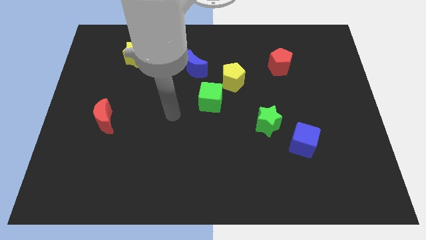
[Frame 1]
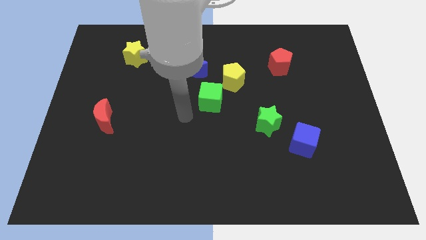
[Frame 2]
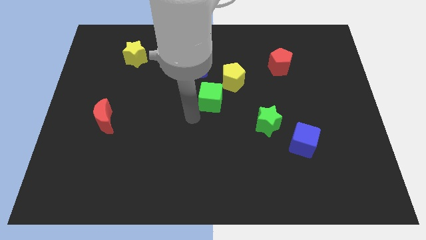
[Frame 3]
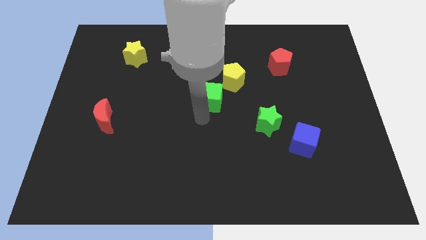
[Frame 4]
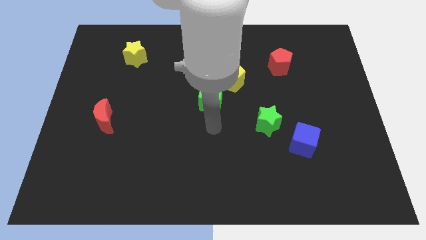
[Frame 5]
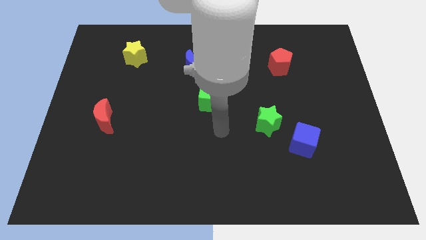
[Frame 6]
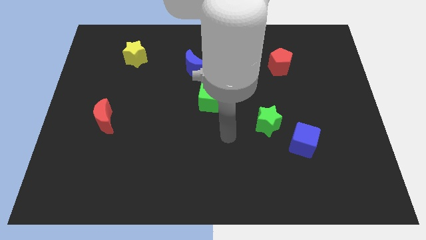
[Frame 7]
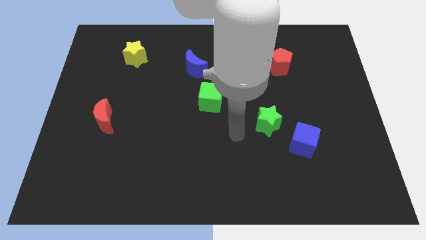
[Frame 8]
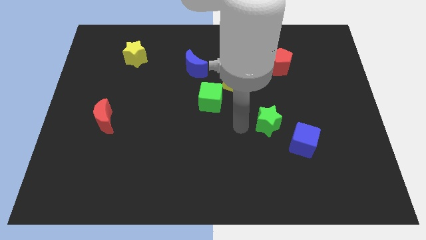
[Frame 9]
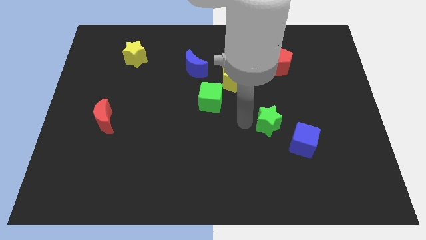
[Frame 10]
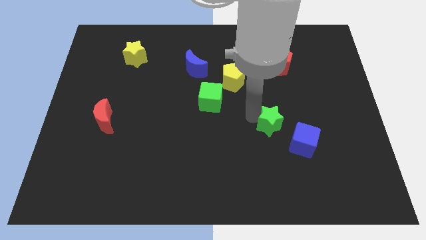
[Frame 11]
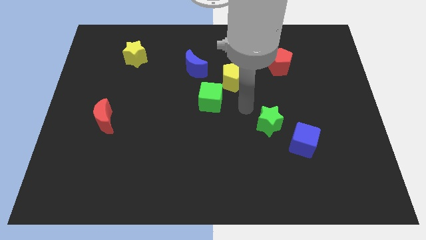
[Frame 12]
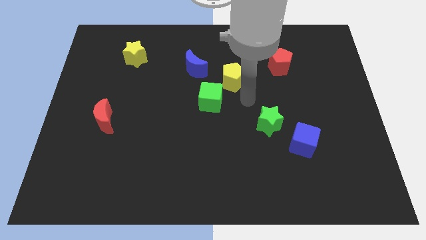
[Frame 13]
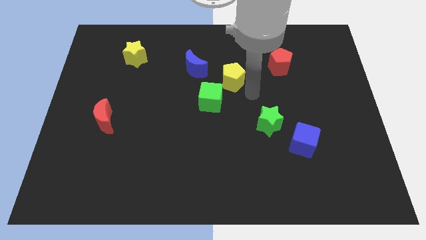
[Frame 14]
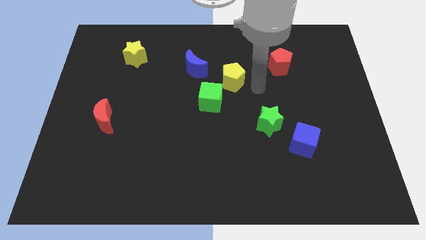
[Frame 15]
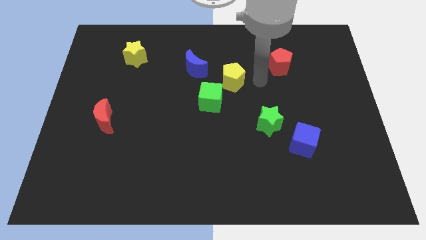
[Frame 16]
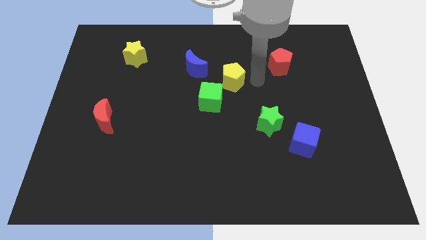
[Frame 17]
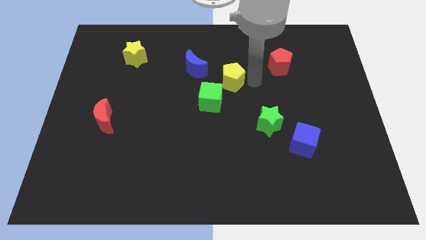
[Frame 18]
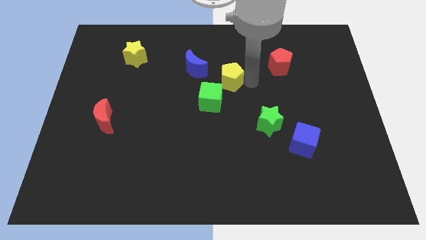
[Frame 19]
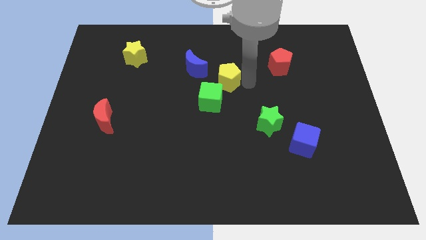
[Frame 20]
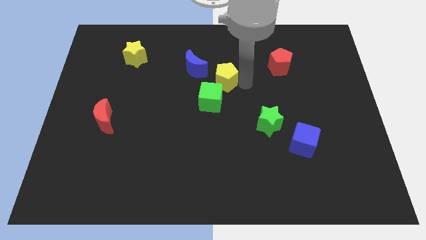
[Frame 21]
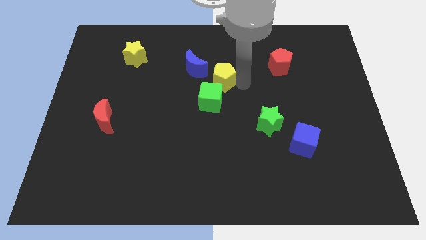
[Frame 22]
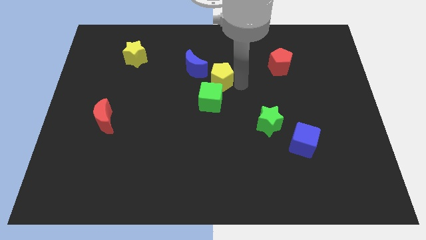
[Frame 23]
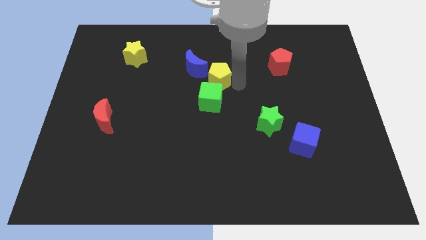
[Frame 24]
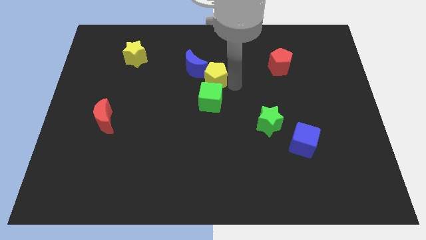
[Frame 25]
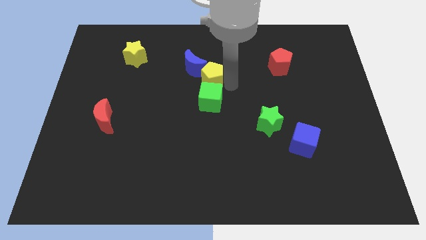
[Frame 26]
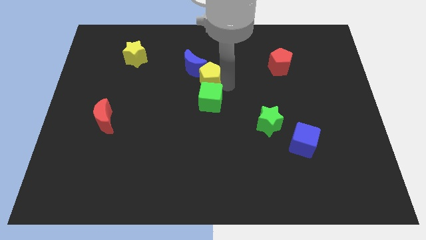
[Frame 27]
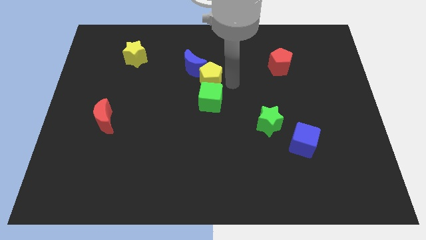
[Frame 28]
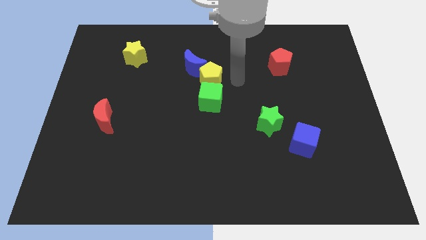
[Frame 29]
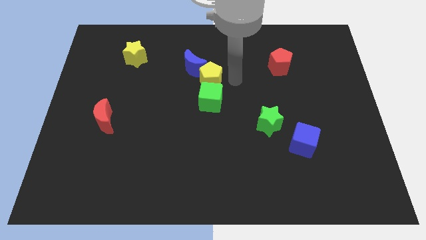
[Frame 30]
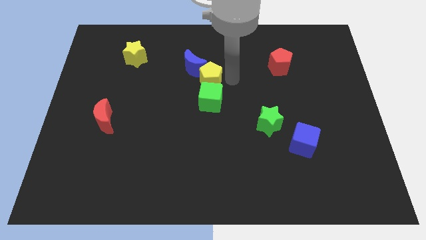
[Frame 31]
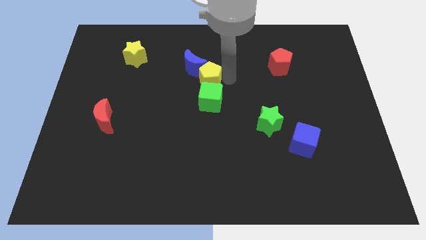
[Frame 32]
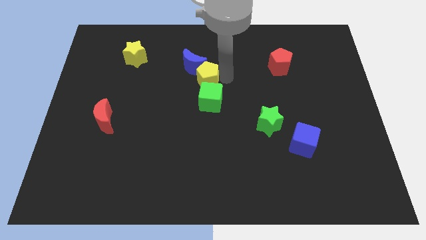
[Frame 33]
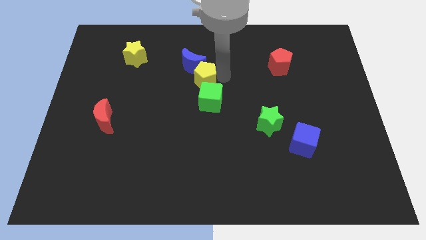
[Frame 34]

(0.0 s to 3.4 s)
slightly move the yellow pentagon to the left

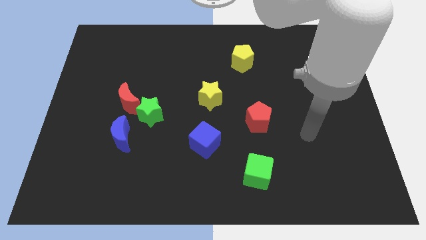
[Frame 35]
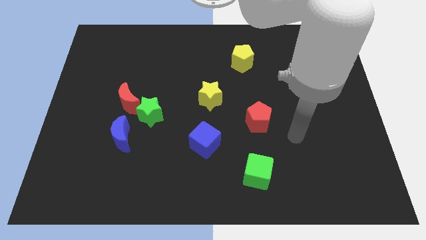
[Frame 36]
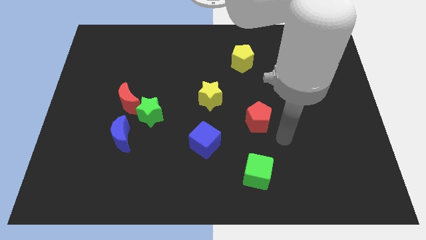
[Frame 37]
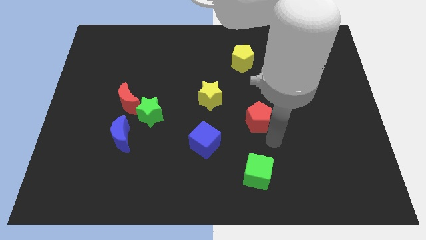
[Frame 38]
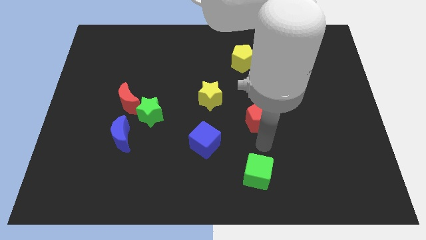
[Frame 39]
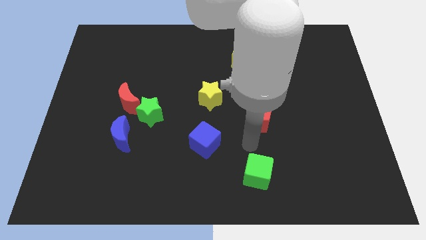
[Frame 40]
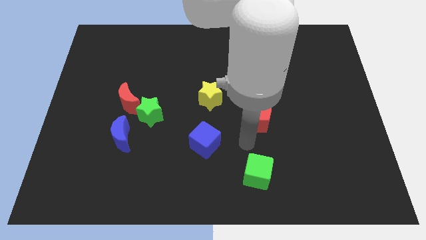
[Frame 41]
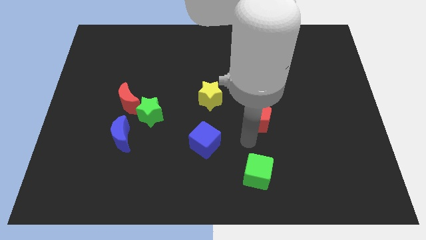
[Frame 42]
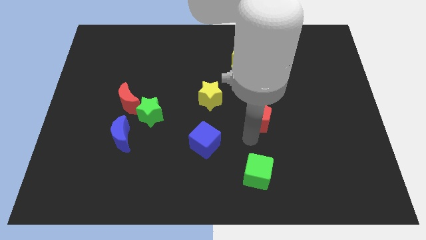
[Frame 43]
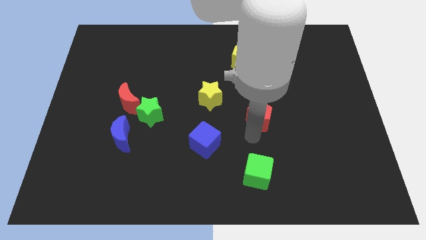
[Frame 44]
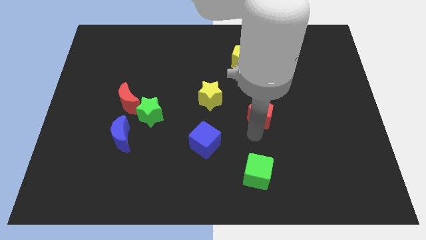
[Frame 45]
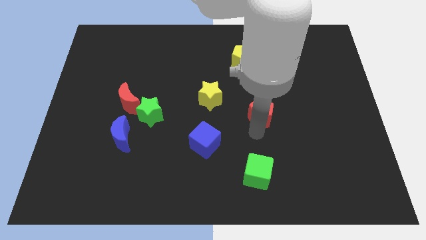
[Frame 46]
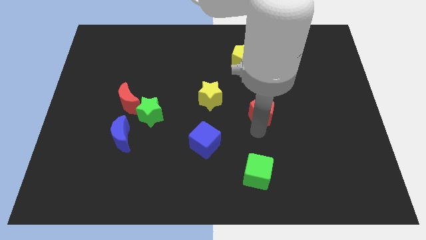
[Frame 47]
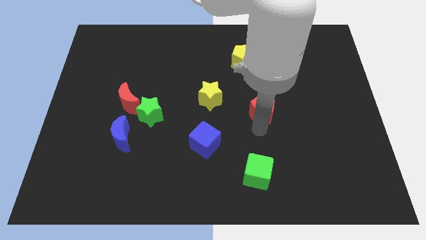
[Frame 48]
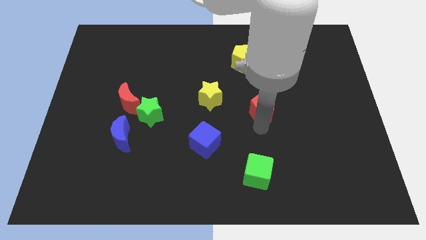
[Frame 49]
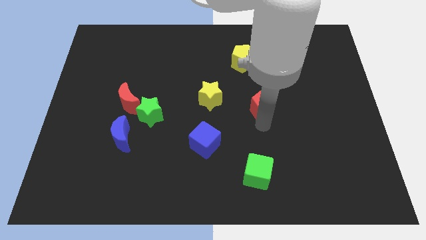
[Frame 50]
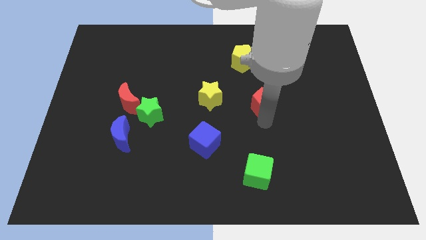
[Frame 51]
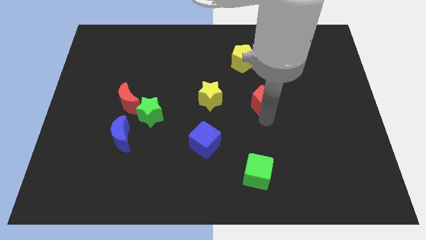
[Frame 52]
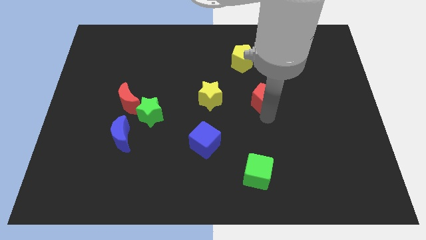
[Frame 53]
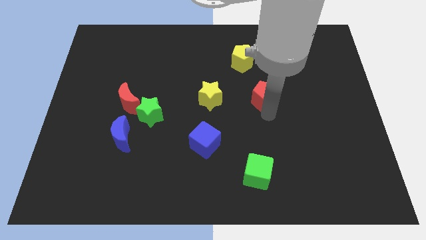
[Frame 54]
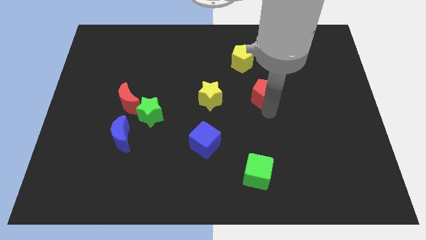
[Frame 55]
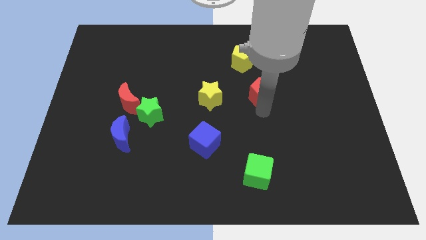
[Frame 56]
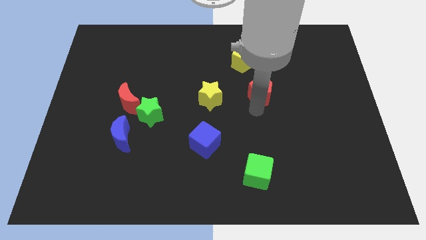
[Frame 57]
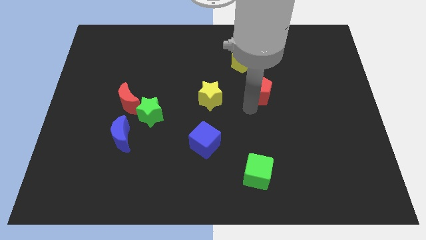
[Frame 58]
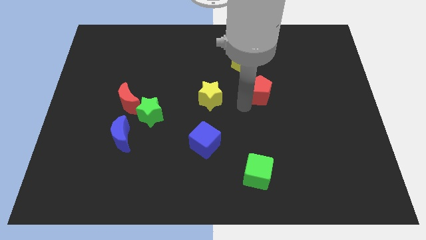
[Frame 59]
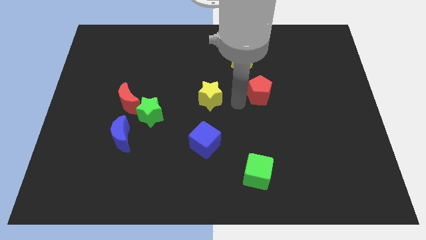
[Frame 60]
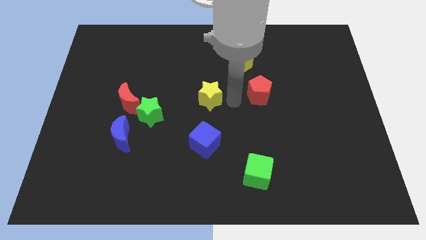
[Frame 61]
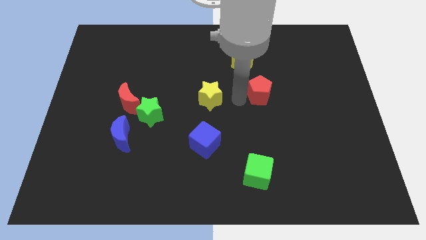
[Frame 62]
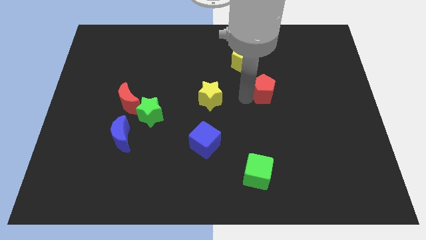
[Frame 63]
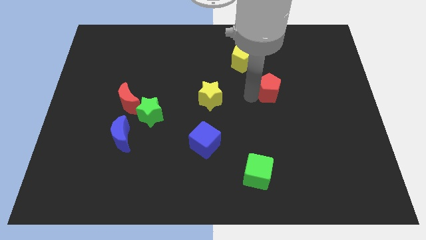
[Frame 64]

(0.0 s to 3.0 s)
push the red pentagon upwards and to the right somewhat

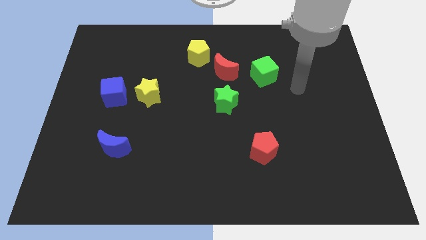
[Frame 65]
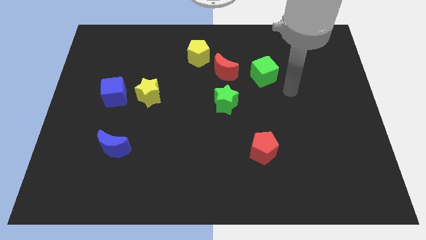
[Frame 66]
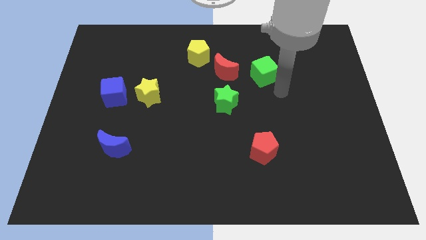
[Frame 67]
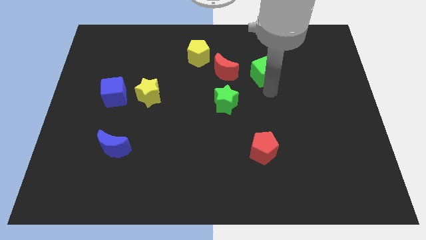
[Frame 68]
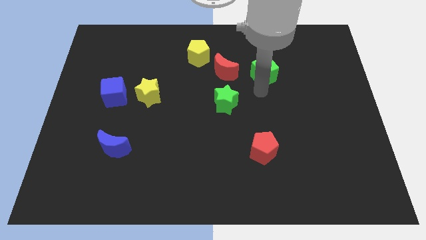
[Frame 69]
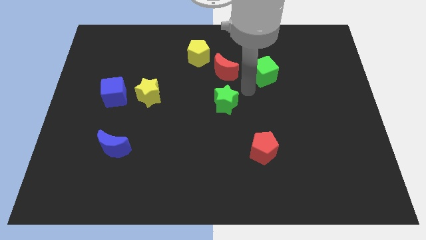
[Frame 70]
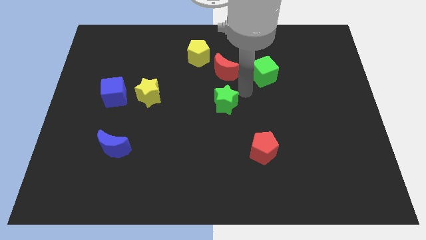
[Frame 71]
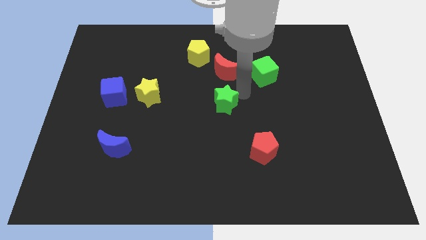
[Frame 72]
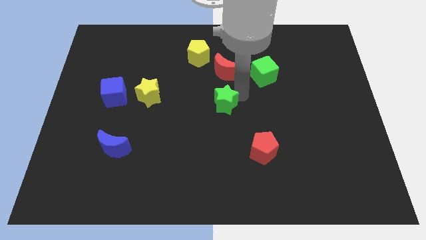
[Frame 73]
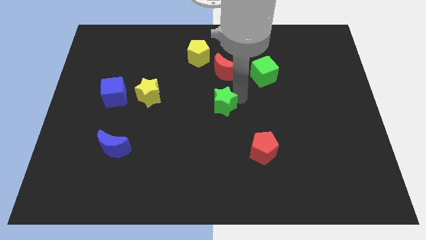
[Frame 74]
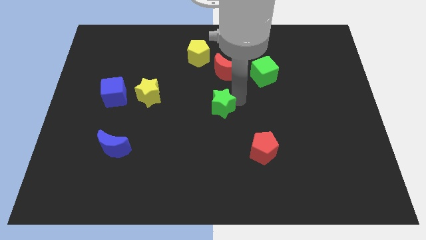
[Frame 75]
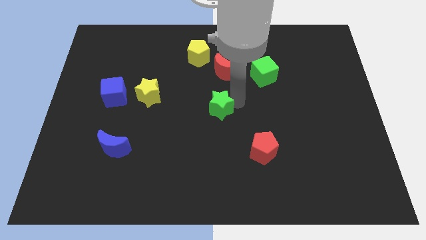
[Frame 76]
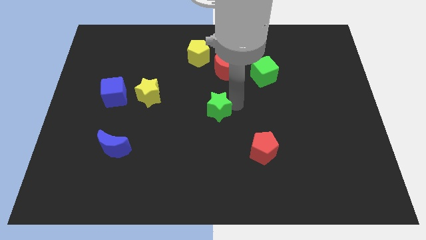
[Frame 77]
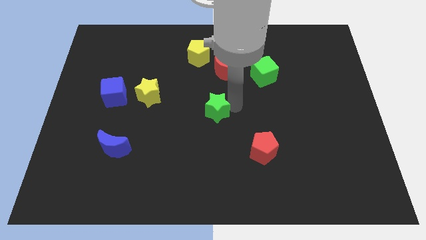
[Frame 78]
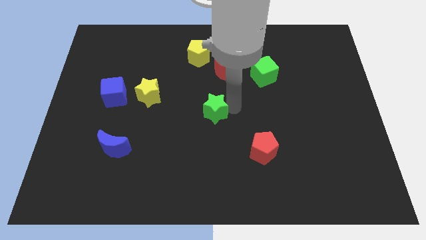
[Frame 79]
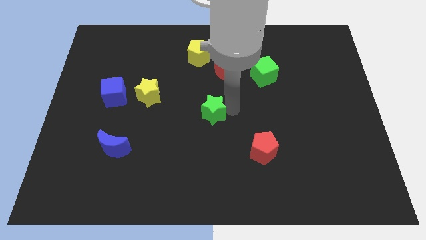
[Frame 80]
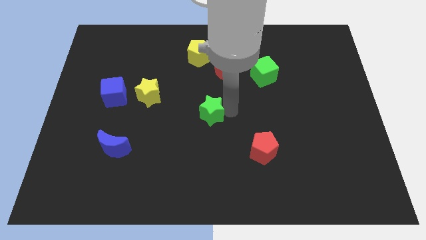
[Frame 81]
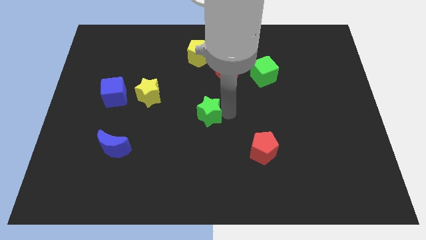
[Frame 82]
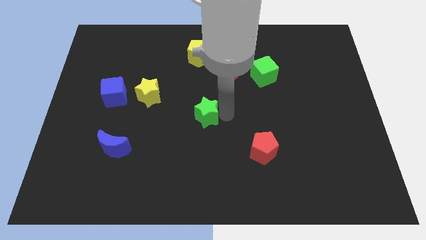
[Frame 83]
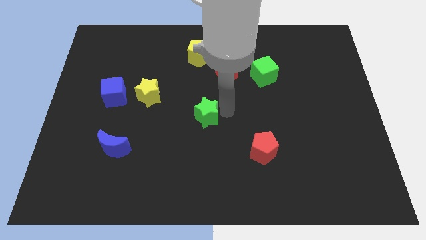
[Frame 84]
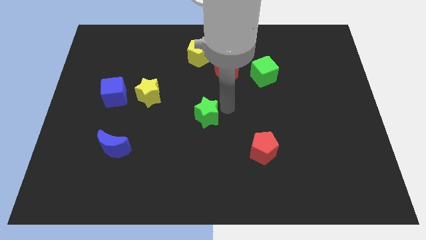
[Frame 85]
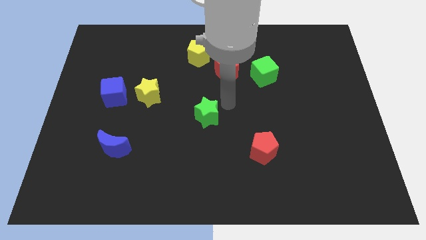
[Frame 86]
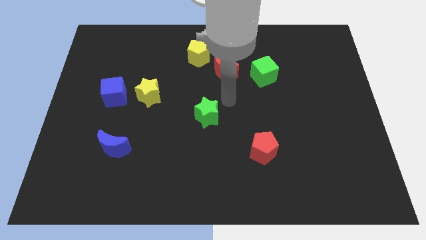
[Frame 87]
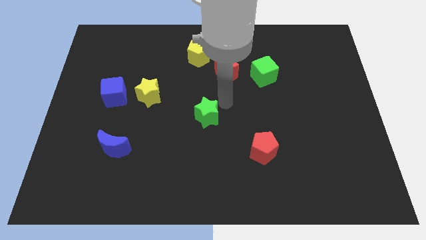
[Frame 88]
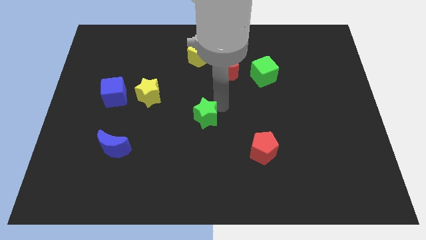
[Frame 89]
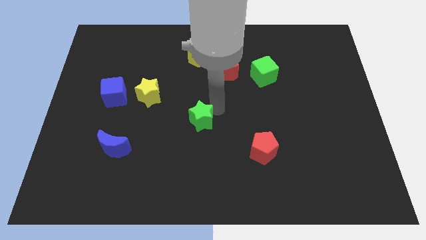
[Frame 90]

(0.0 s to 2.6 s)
slightly slide the green star diagonally downwards and left
